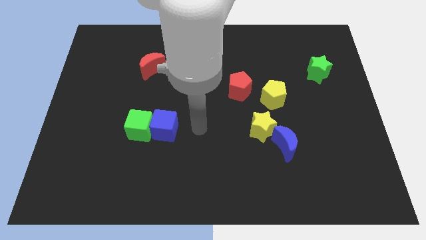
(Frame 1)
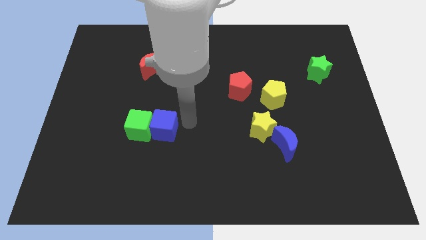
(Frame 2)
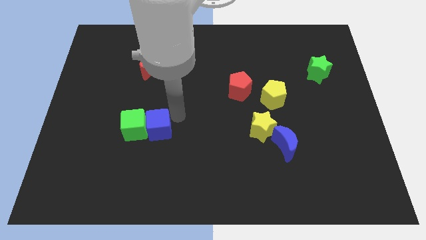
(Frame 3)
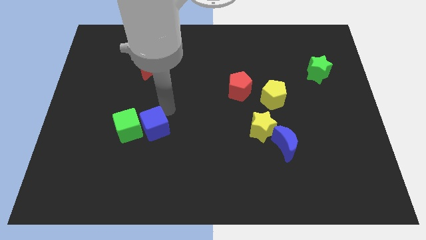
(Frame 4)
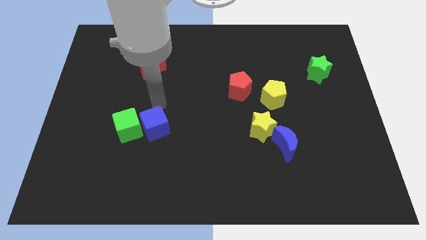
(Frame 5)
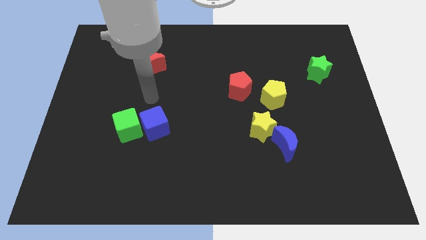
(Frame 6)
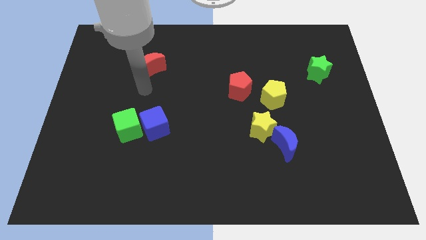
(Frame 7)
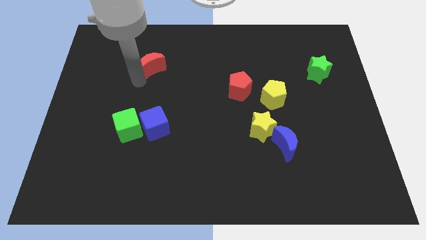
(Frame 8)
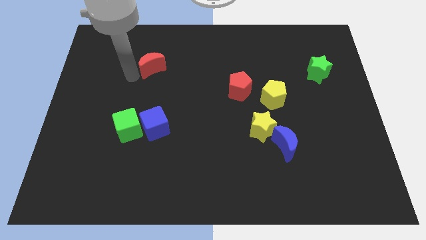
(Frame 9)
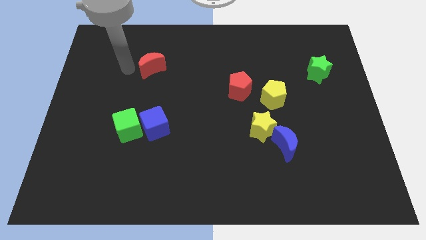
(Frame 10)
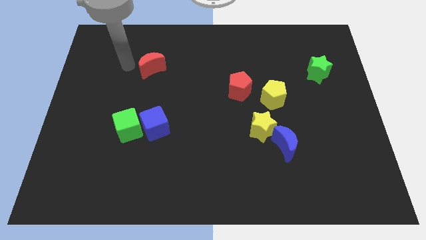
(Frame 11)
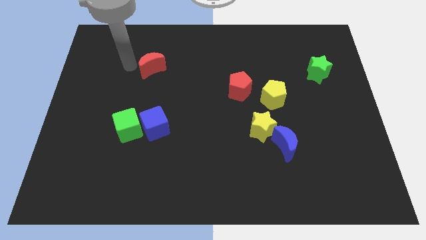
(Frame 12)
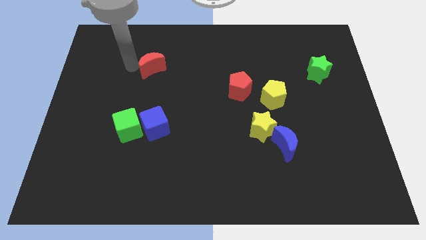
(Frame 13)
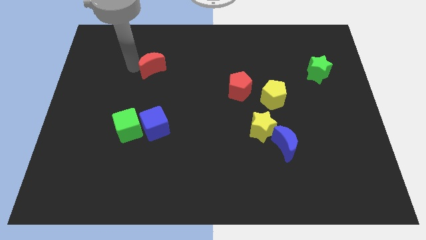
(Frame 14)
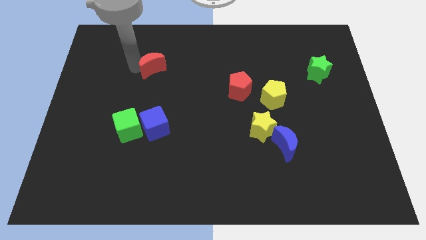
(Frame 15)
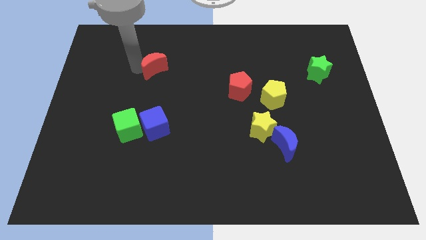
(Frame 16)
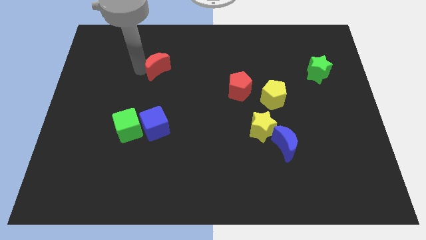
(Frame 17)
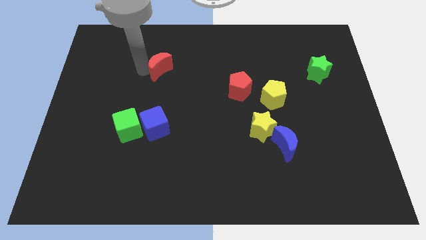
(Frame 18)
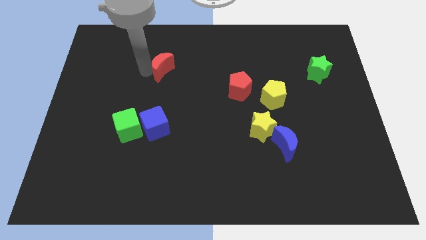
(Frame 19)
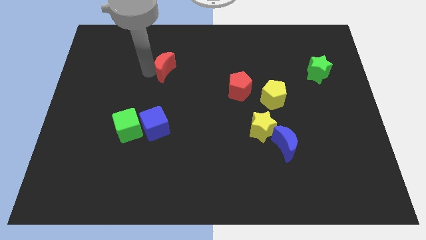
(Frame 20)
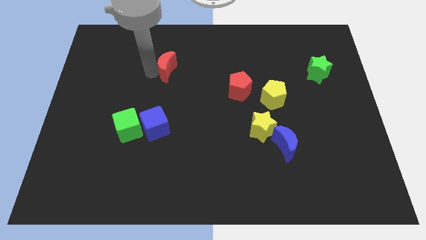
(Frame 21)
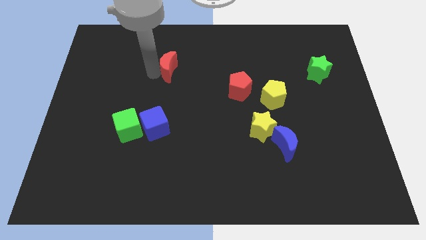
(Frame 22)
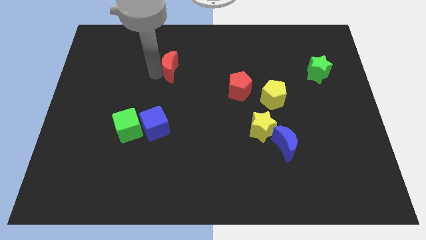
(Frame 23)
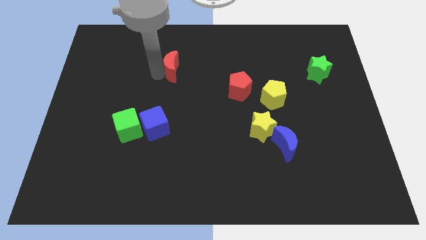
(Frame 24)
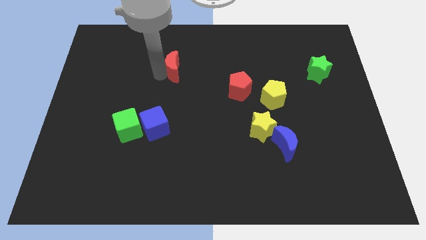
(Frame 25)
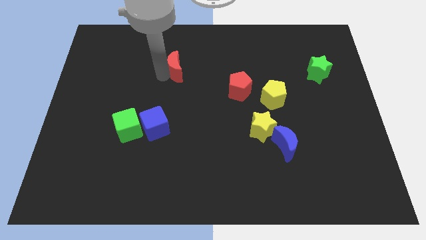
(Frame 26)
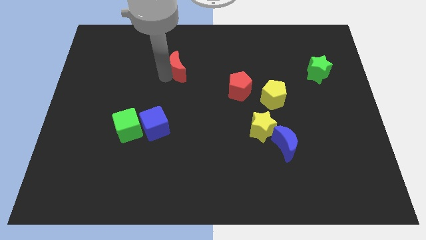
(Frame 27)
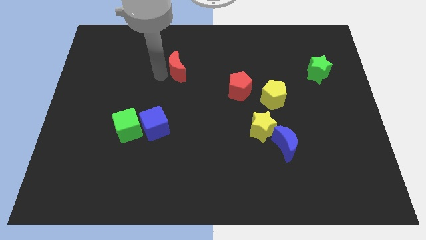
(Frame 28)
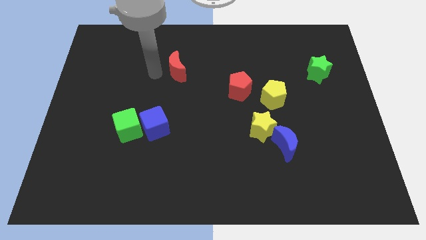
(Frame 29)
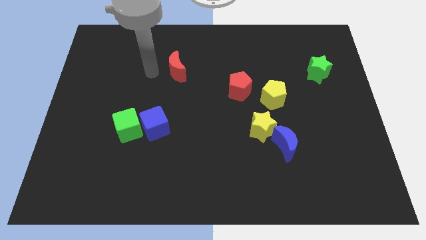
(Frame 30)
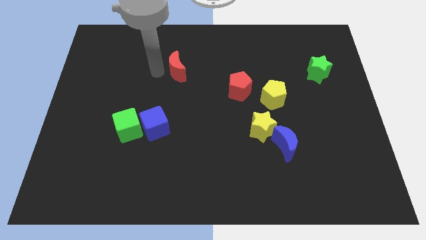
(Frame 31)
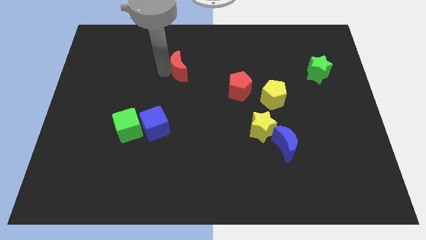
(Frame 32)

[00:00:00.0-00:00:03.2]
slightly push the red moon to the right

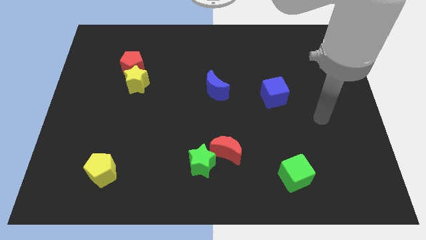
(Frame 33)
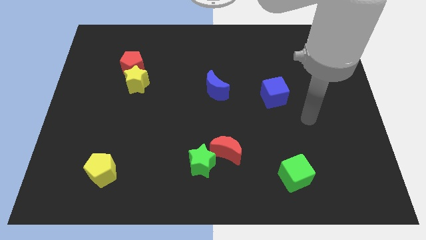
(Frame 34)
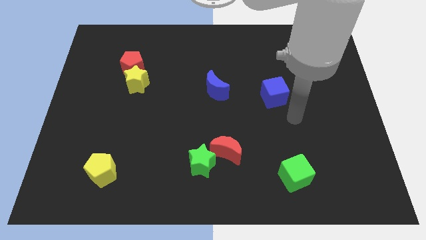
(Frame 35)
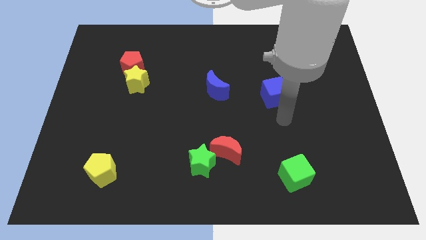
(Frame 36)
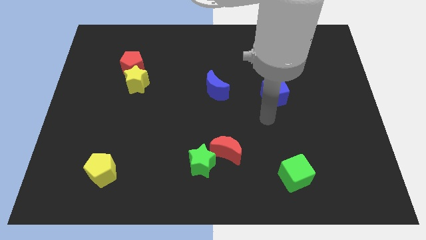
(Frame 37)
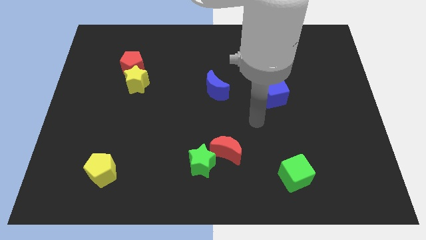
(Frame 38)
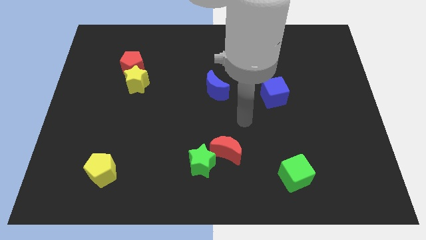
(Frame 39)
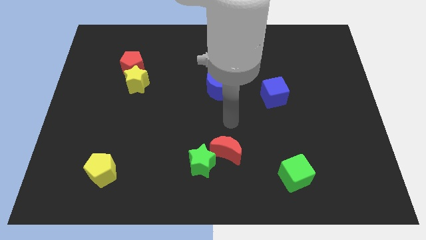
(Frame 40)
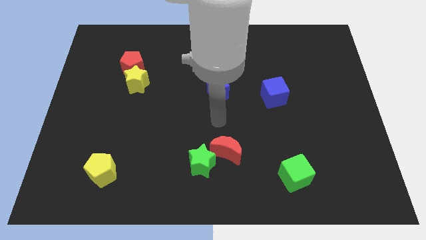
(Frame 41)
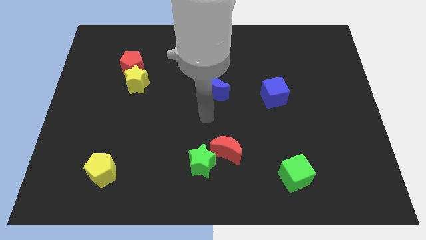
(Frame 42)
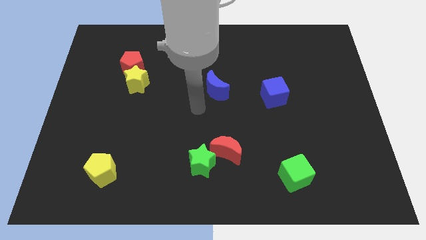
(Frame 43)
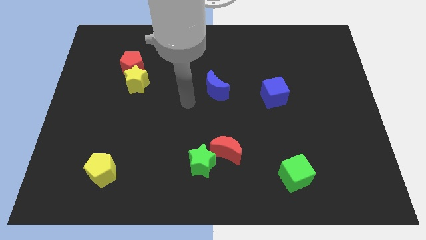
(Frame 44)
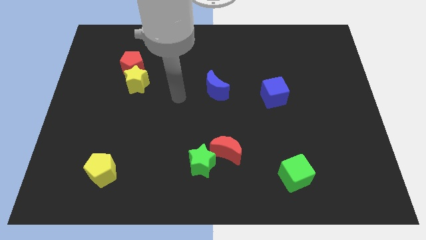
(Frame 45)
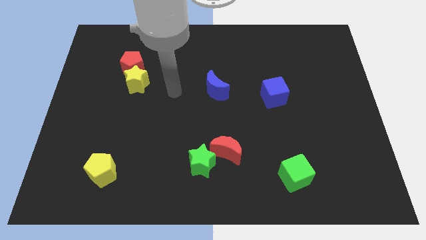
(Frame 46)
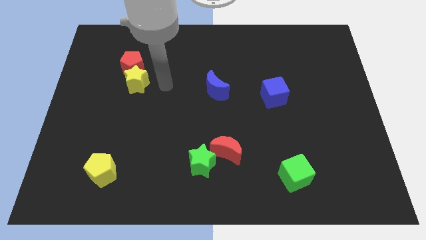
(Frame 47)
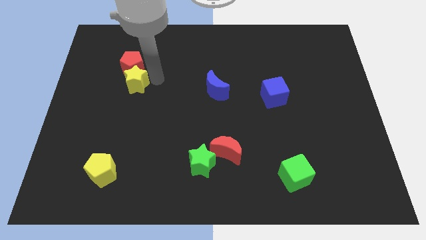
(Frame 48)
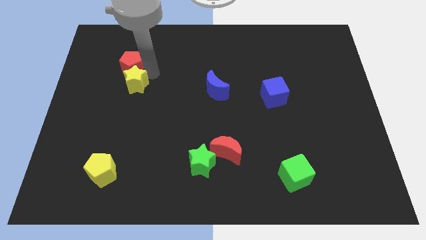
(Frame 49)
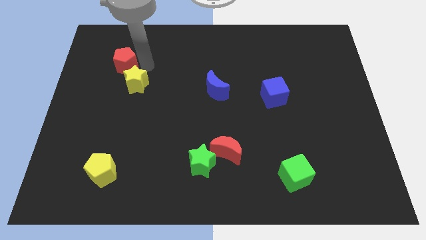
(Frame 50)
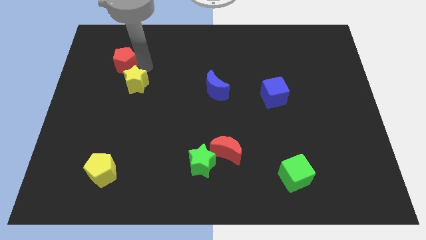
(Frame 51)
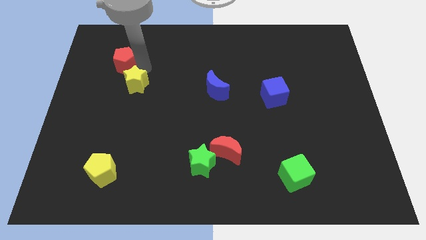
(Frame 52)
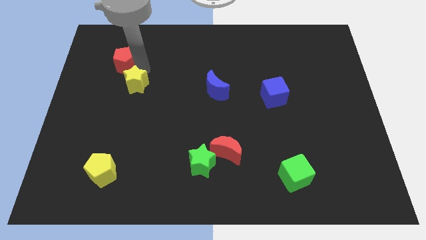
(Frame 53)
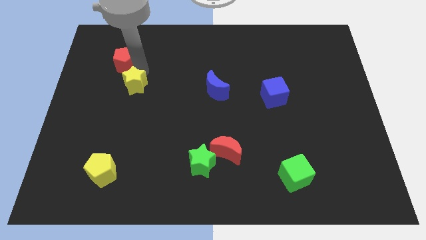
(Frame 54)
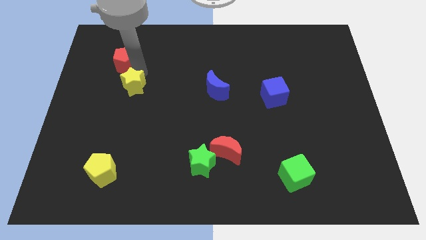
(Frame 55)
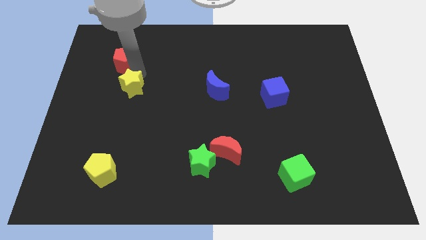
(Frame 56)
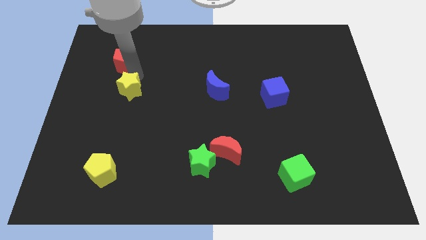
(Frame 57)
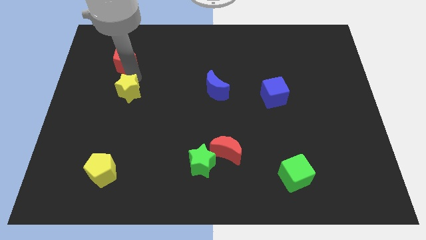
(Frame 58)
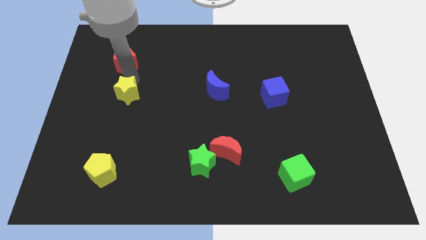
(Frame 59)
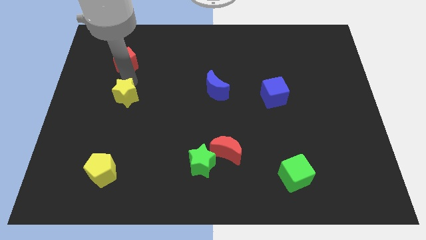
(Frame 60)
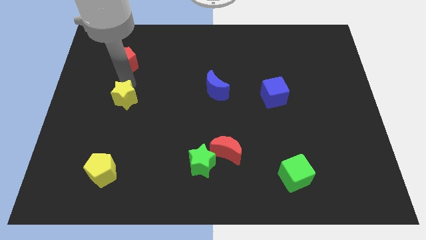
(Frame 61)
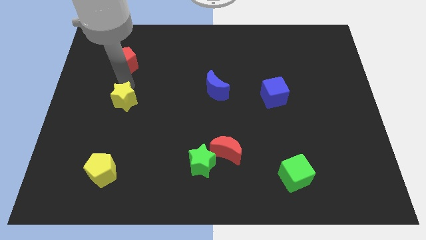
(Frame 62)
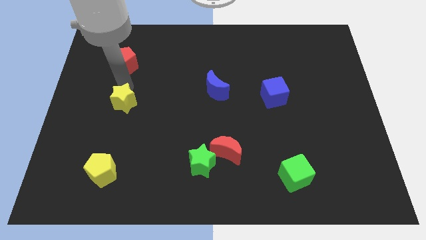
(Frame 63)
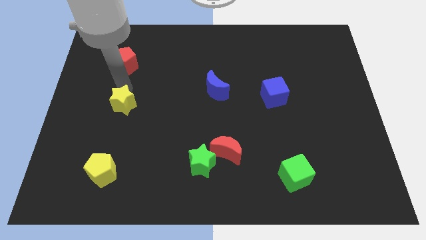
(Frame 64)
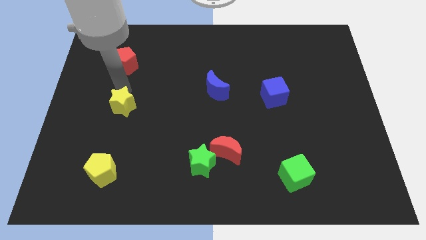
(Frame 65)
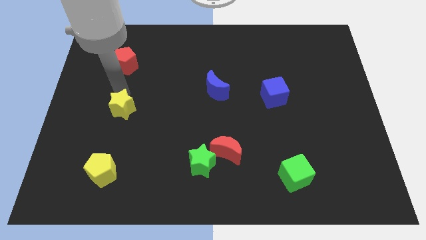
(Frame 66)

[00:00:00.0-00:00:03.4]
slightly move the yellow star downwards

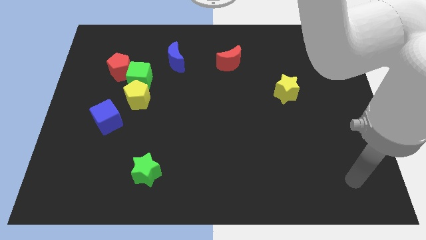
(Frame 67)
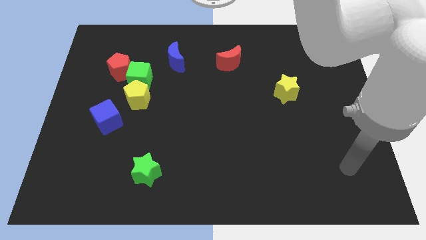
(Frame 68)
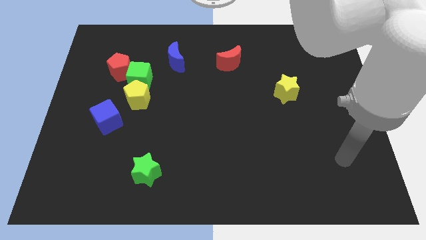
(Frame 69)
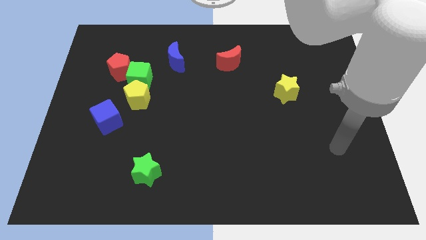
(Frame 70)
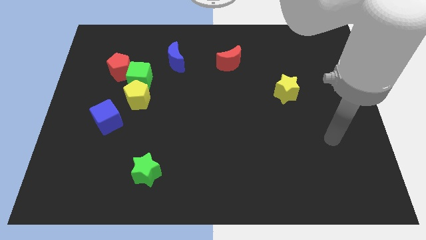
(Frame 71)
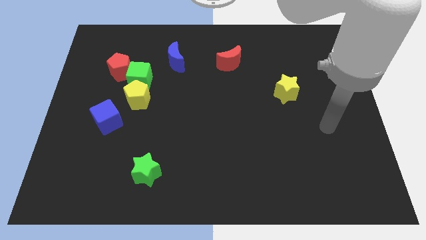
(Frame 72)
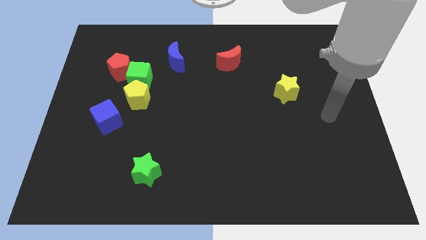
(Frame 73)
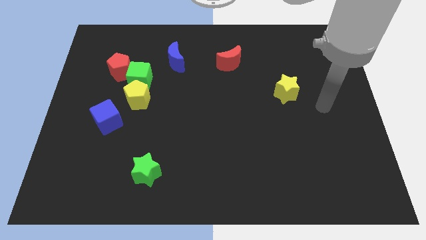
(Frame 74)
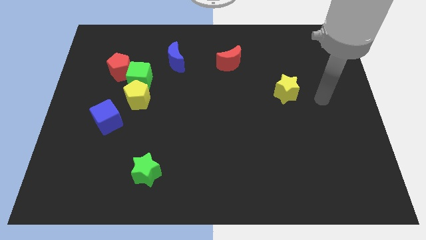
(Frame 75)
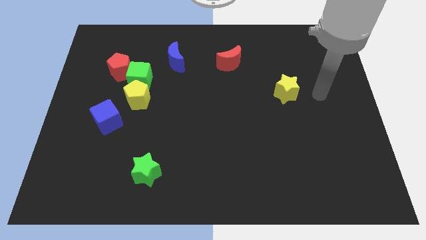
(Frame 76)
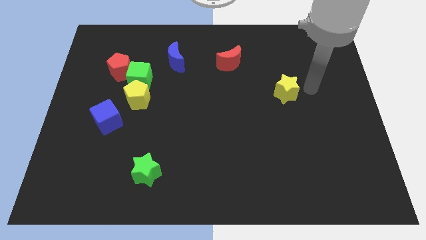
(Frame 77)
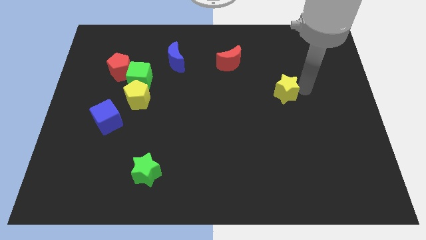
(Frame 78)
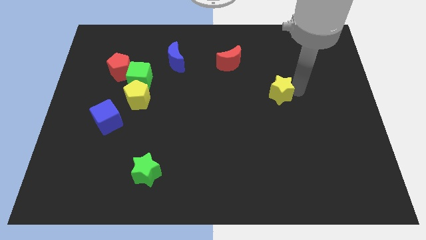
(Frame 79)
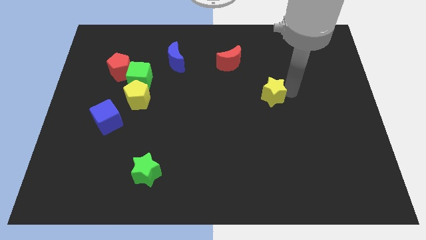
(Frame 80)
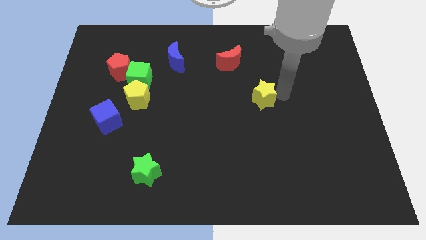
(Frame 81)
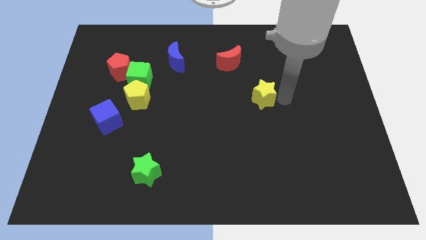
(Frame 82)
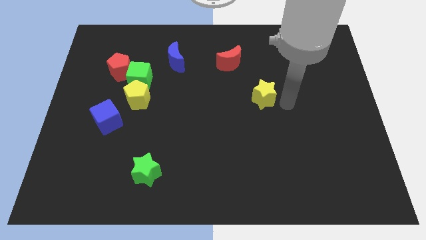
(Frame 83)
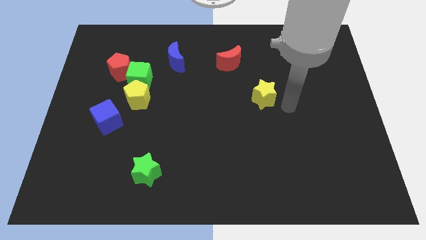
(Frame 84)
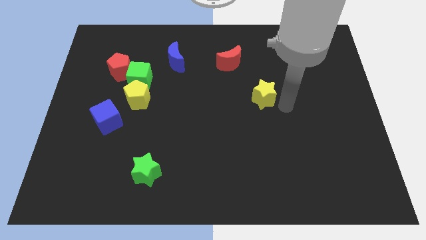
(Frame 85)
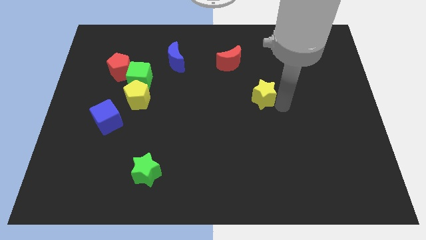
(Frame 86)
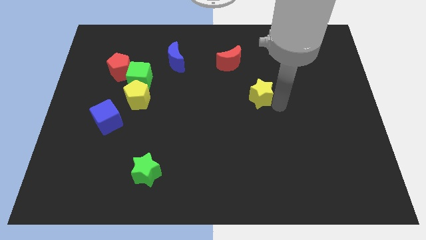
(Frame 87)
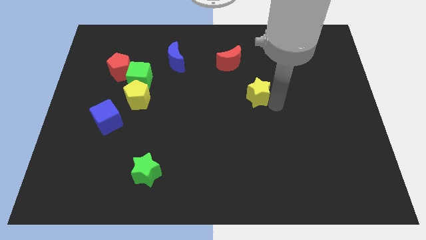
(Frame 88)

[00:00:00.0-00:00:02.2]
slide the yellow star left a little
